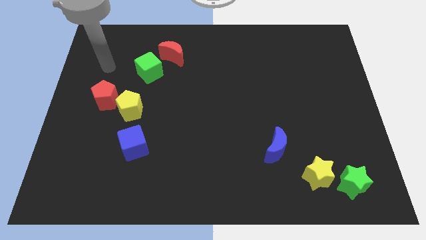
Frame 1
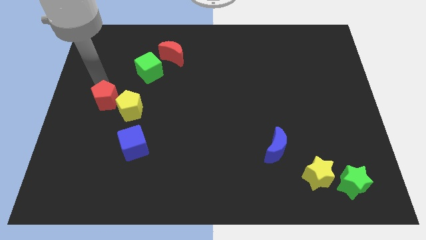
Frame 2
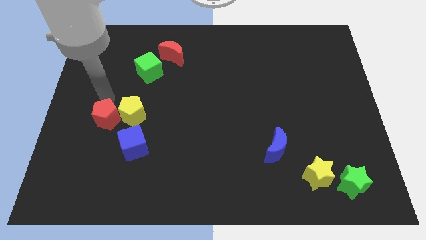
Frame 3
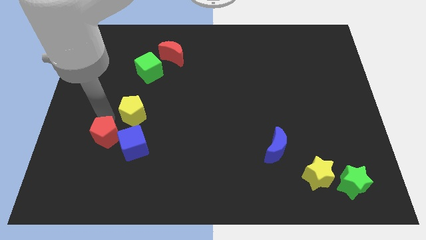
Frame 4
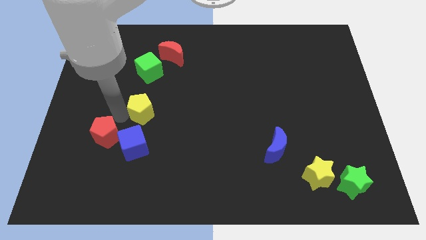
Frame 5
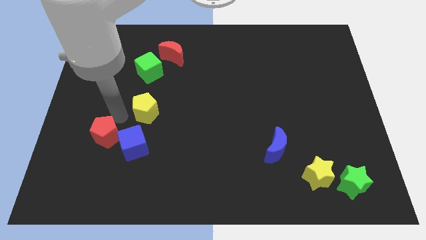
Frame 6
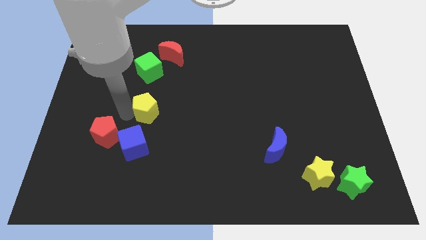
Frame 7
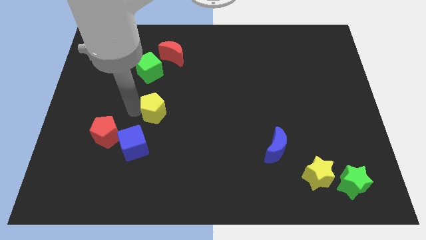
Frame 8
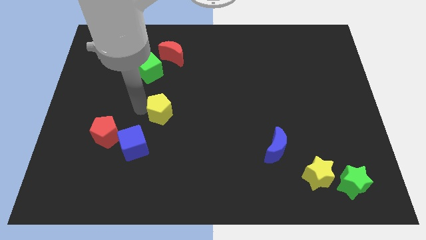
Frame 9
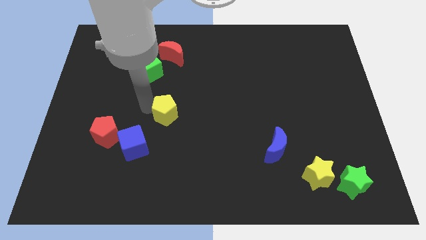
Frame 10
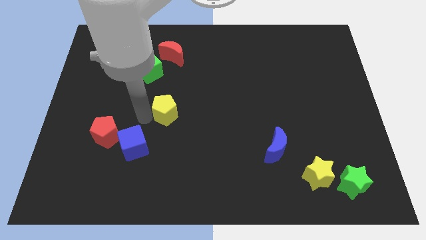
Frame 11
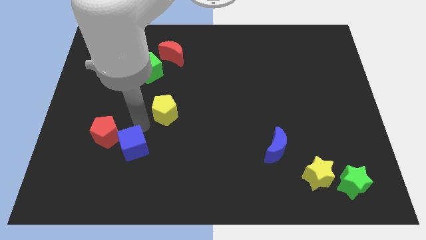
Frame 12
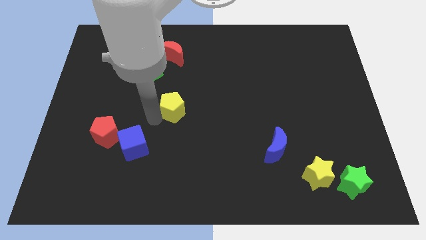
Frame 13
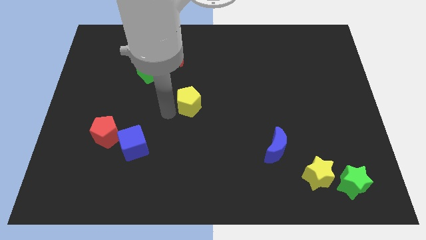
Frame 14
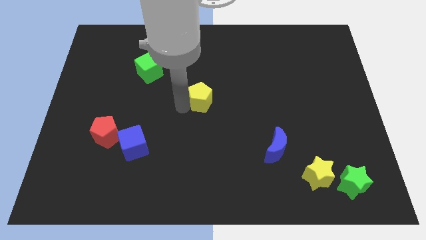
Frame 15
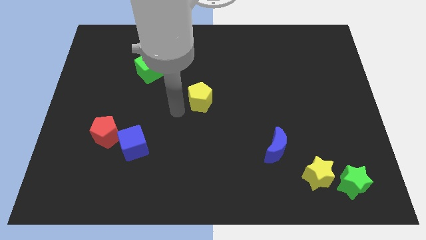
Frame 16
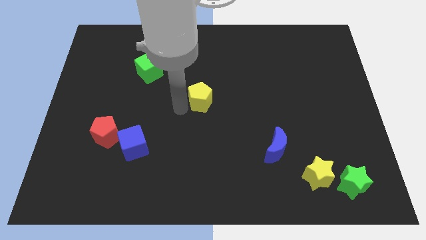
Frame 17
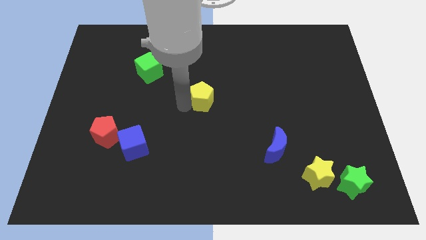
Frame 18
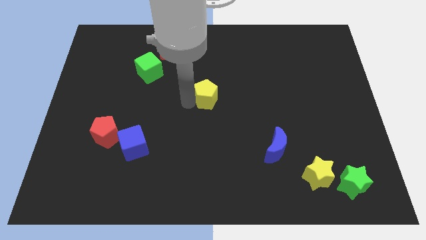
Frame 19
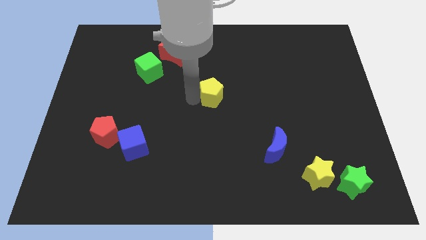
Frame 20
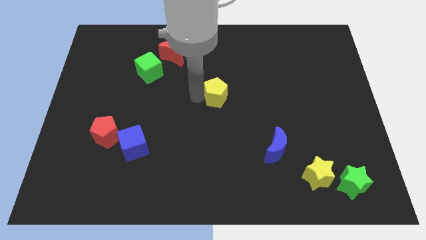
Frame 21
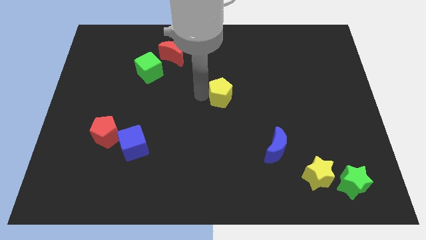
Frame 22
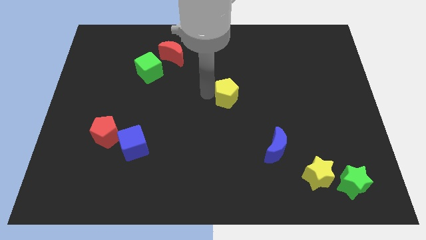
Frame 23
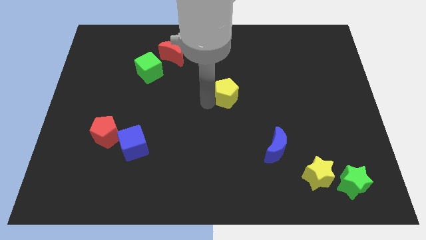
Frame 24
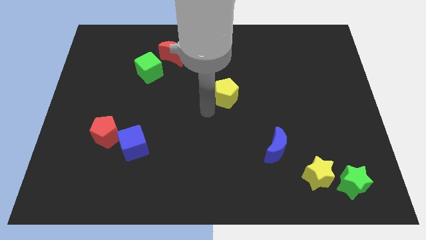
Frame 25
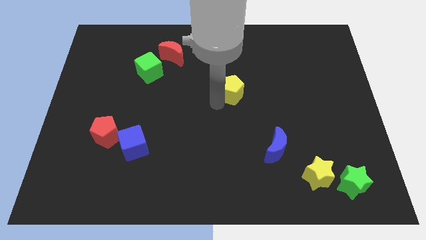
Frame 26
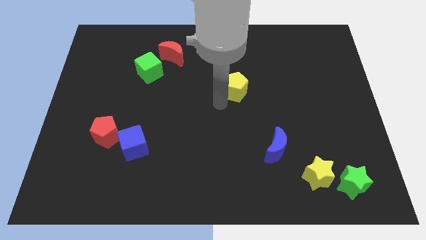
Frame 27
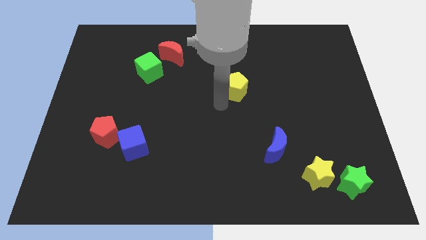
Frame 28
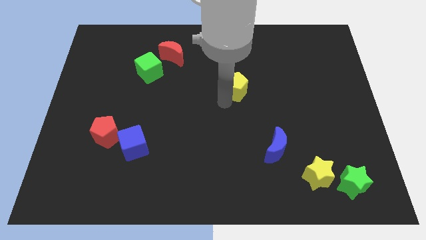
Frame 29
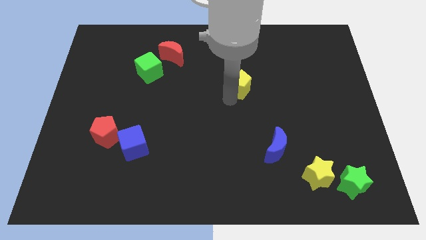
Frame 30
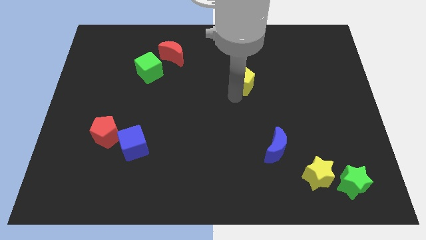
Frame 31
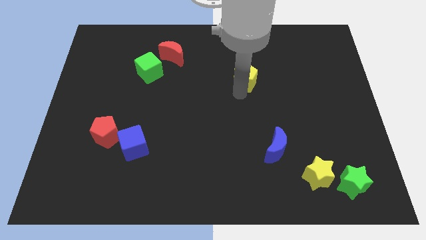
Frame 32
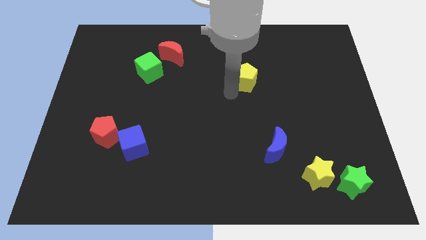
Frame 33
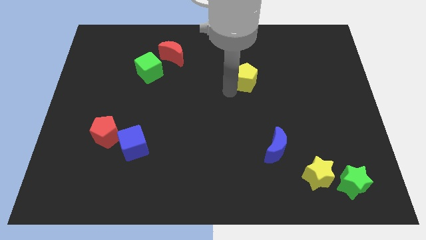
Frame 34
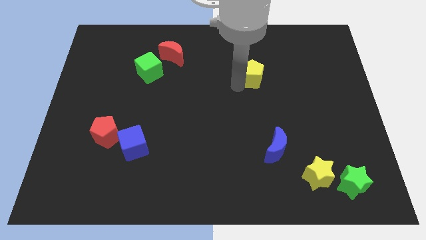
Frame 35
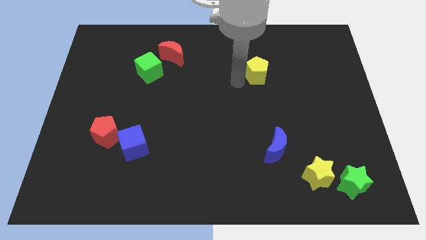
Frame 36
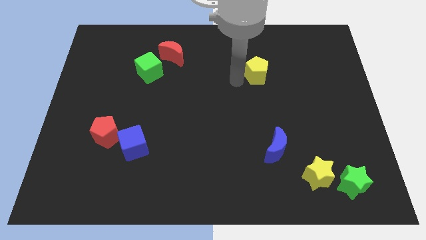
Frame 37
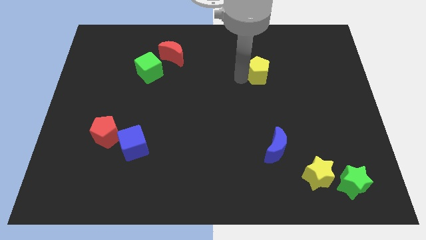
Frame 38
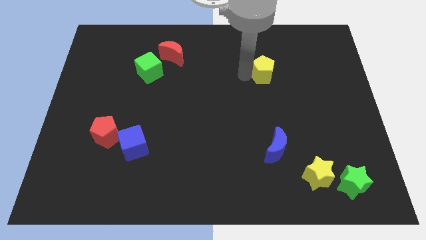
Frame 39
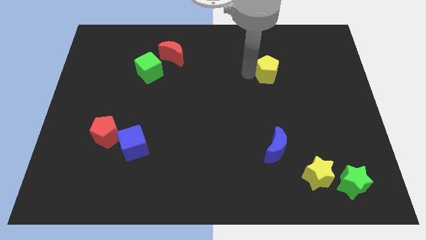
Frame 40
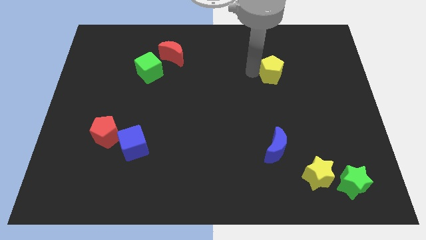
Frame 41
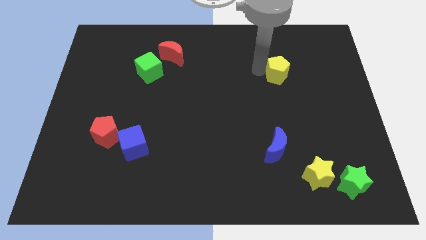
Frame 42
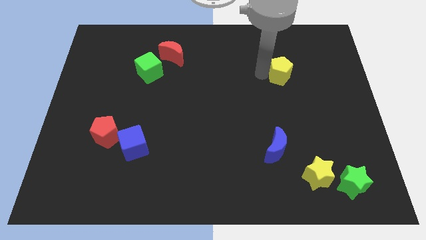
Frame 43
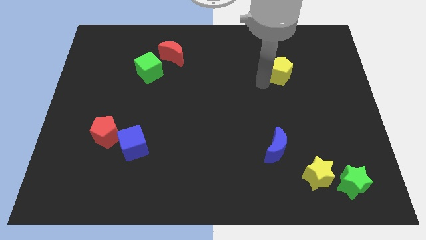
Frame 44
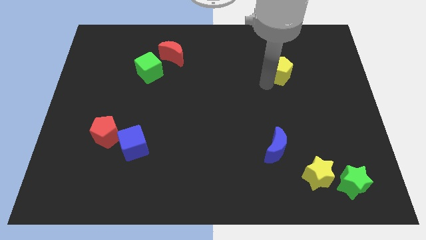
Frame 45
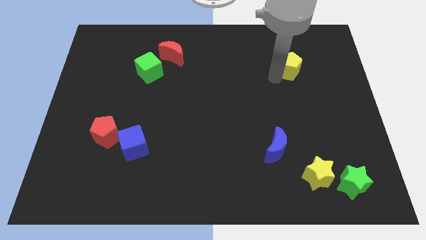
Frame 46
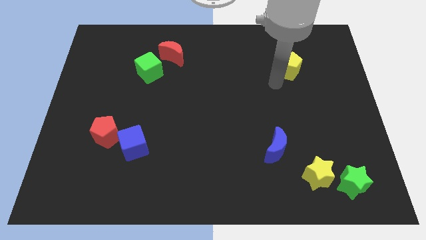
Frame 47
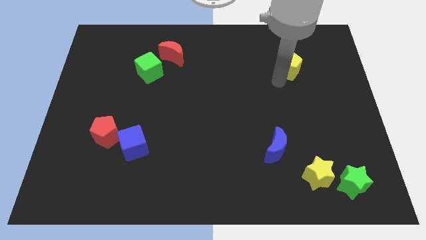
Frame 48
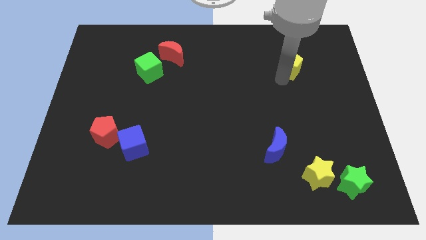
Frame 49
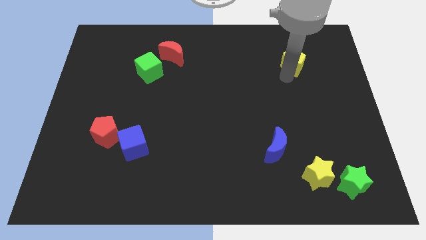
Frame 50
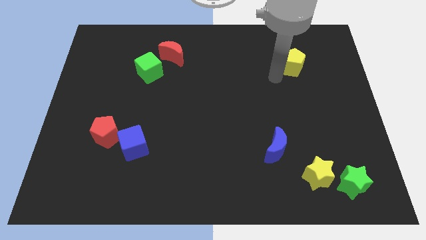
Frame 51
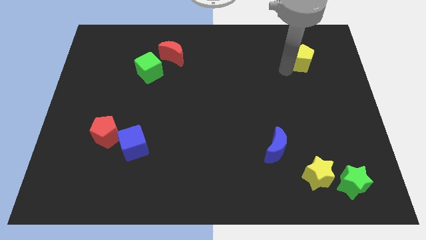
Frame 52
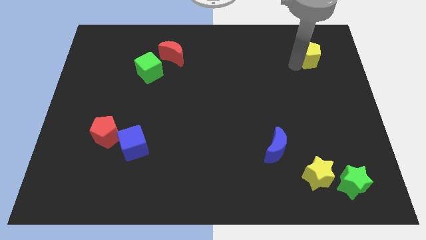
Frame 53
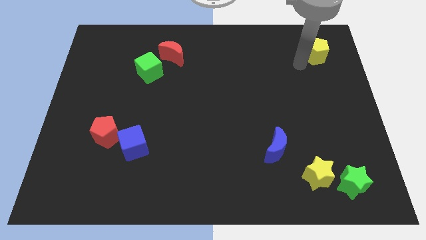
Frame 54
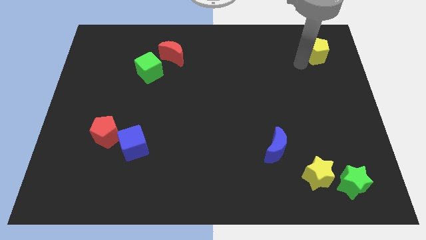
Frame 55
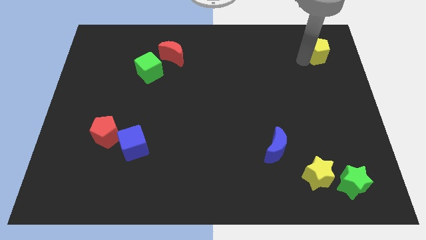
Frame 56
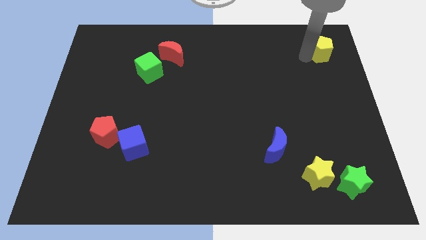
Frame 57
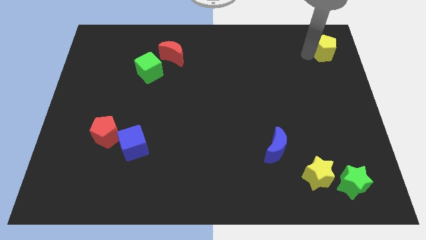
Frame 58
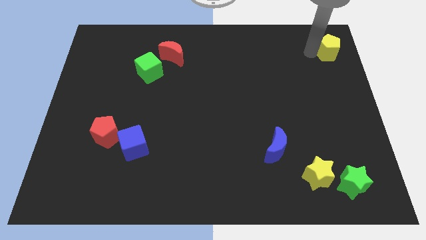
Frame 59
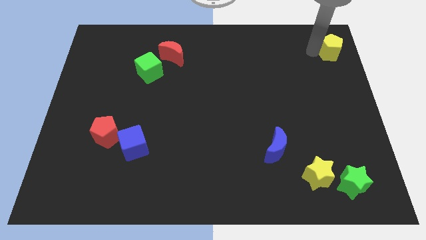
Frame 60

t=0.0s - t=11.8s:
move the yellow pentagon to the top right

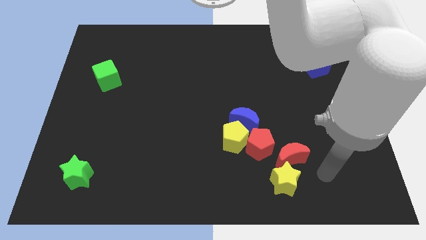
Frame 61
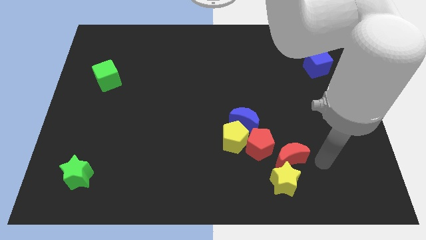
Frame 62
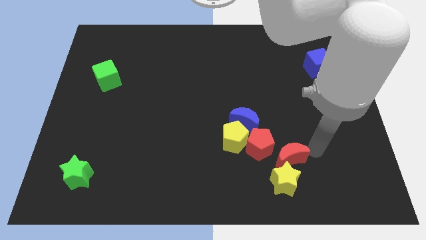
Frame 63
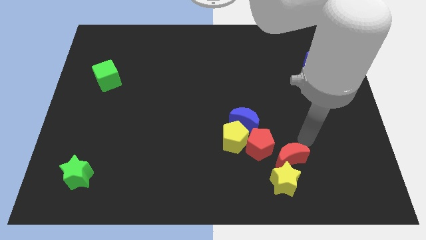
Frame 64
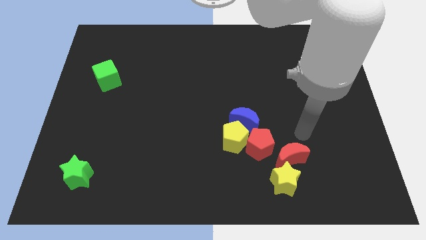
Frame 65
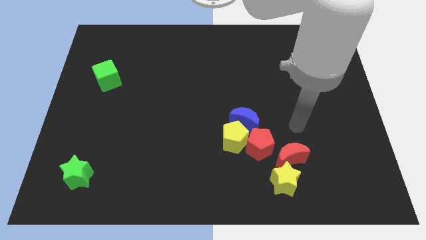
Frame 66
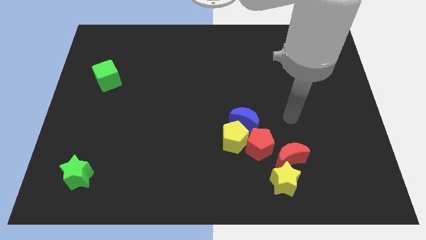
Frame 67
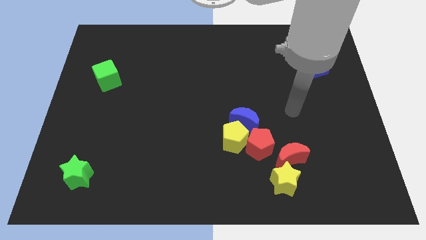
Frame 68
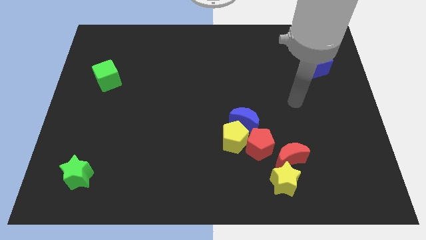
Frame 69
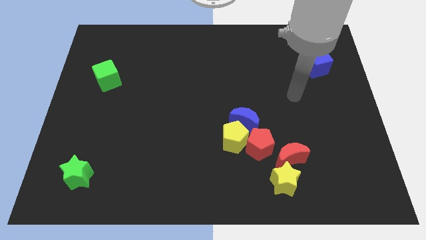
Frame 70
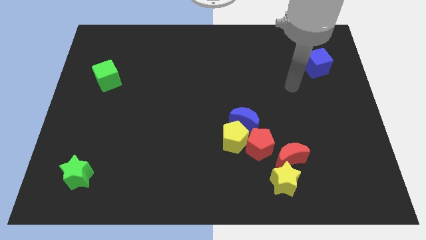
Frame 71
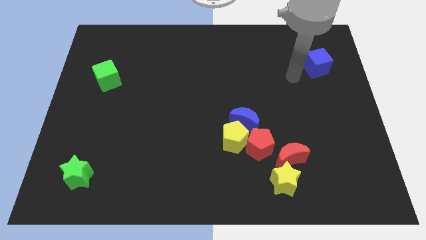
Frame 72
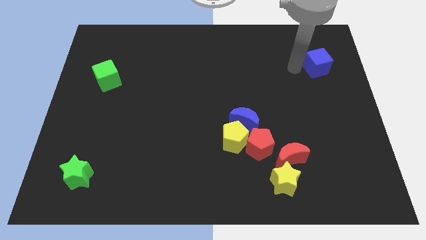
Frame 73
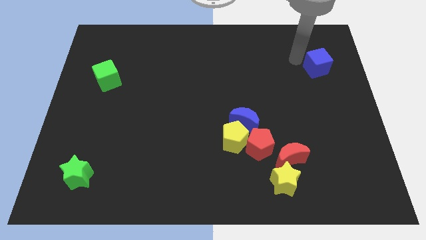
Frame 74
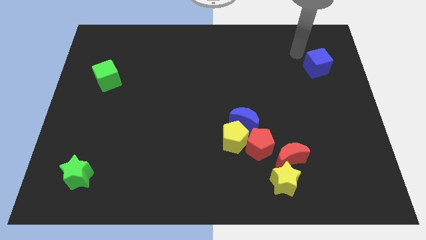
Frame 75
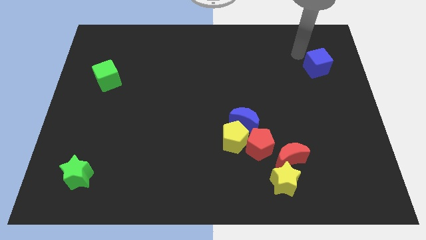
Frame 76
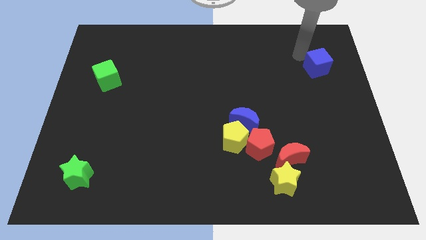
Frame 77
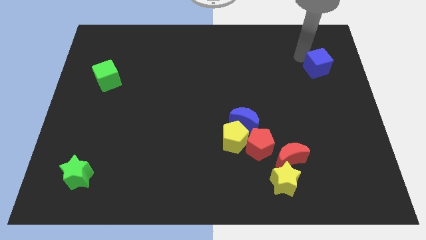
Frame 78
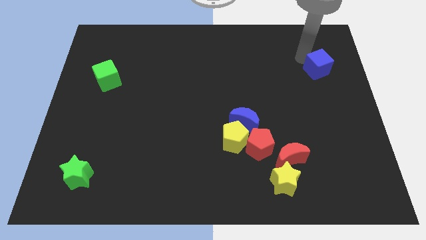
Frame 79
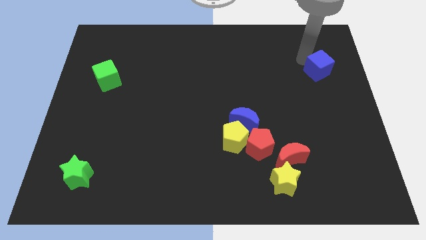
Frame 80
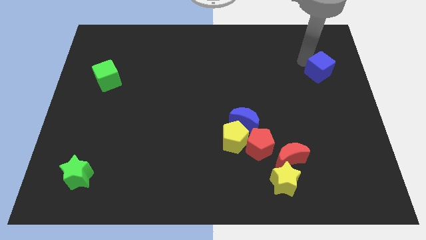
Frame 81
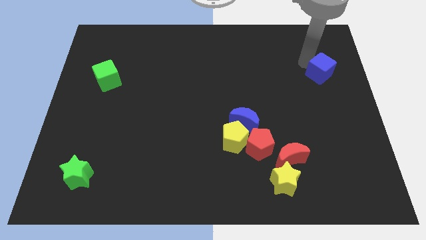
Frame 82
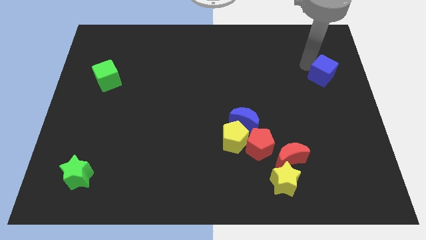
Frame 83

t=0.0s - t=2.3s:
move the blue cube to the right side of the board
